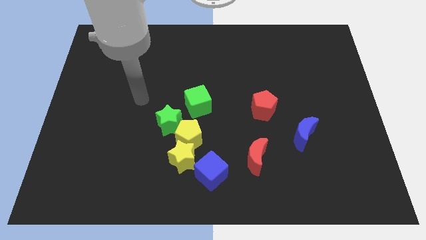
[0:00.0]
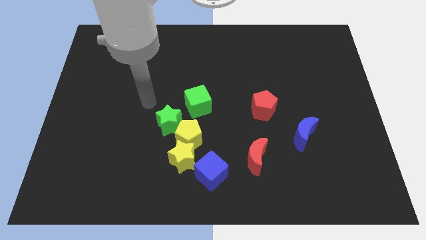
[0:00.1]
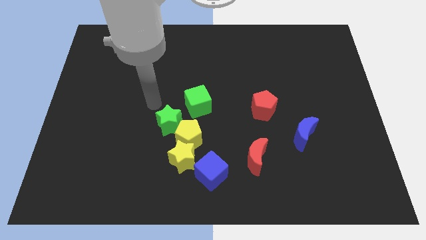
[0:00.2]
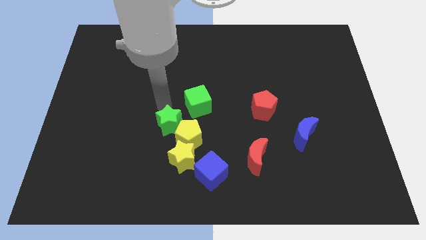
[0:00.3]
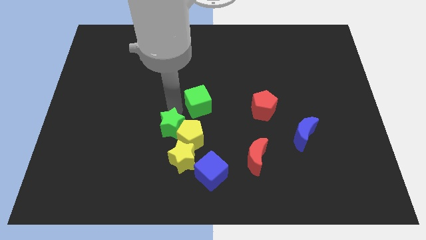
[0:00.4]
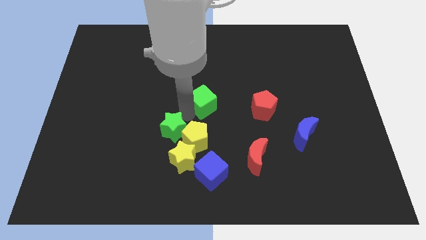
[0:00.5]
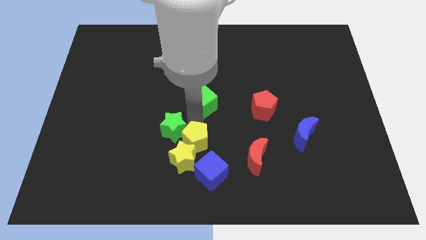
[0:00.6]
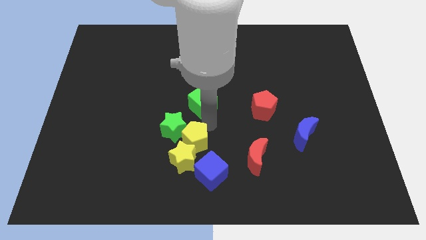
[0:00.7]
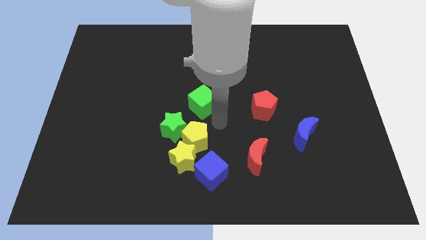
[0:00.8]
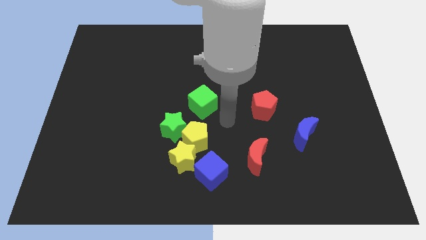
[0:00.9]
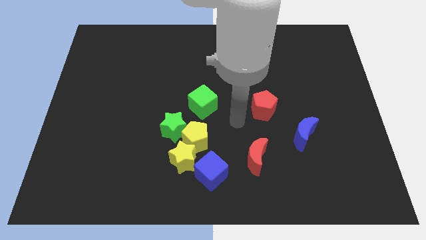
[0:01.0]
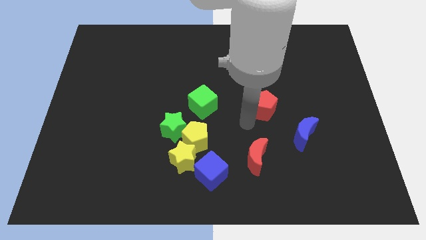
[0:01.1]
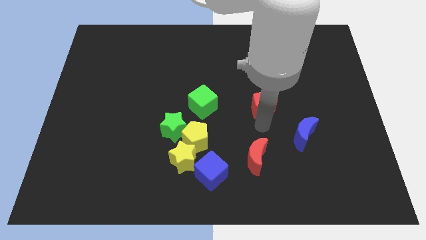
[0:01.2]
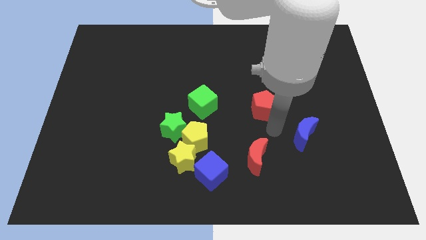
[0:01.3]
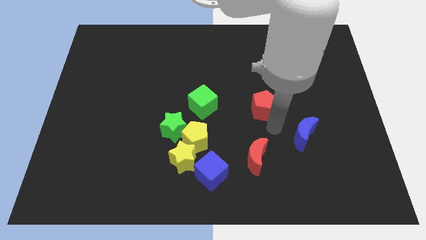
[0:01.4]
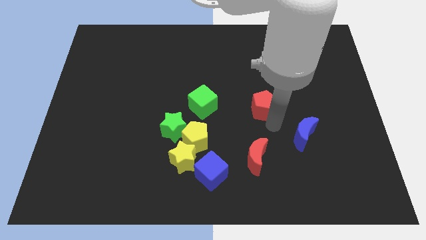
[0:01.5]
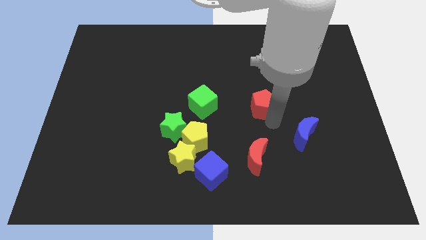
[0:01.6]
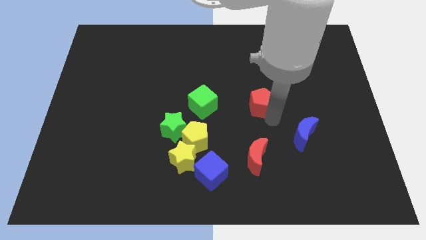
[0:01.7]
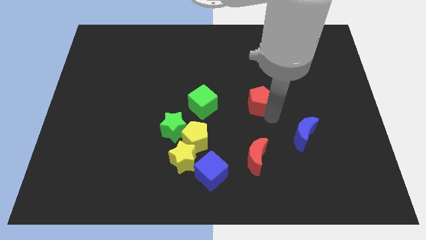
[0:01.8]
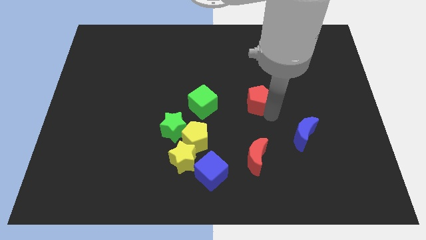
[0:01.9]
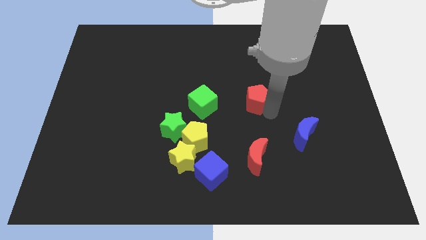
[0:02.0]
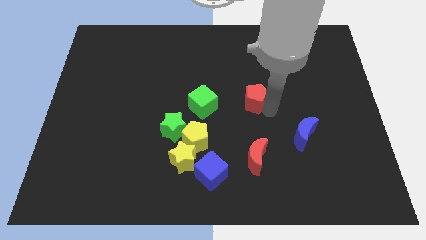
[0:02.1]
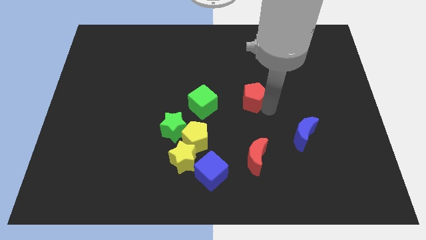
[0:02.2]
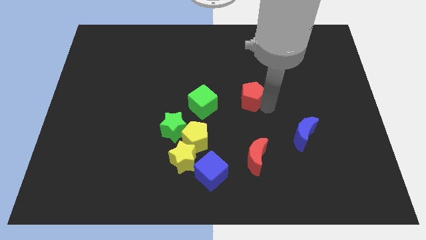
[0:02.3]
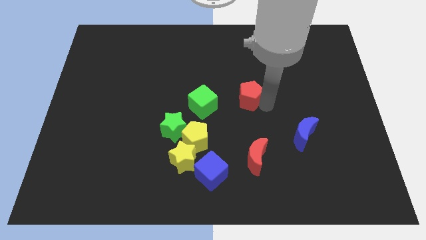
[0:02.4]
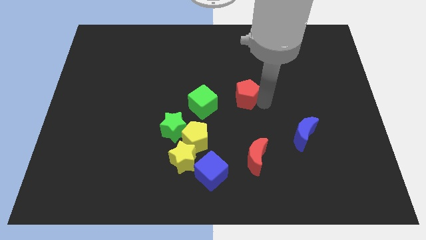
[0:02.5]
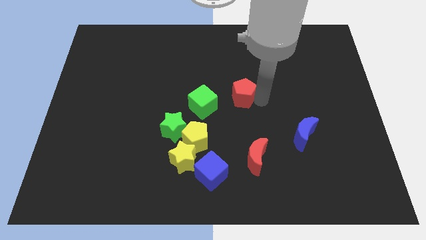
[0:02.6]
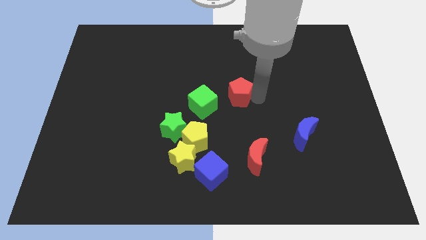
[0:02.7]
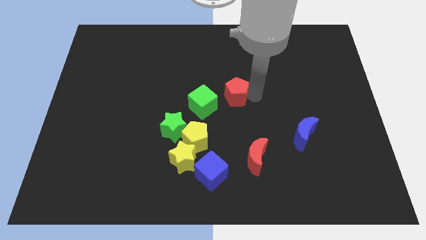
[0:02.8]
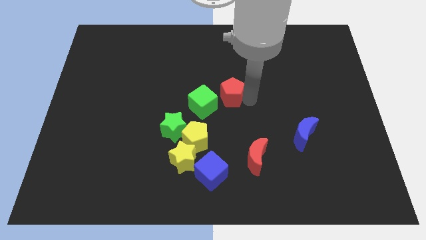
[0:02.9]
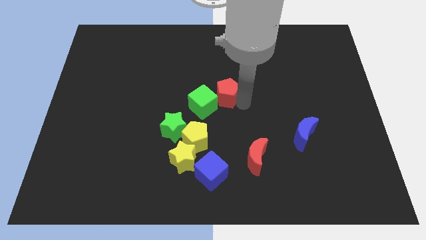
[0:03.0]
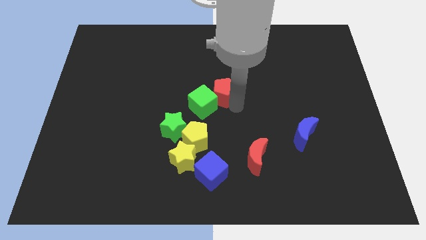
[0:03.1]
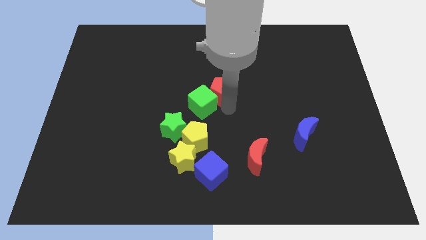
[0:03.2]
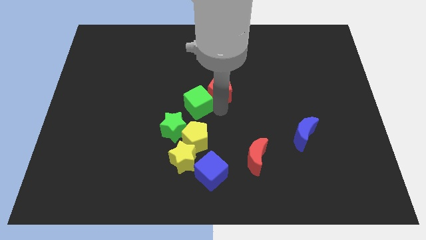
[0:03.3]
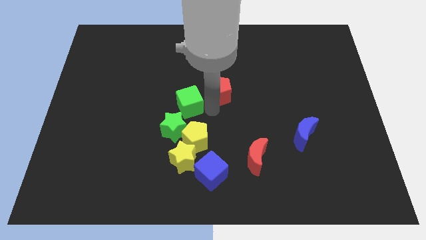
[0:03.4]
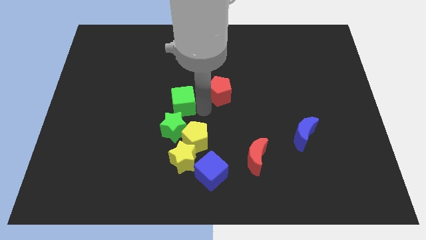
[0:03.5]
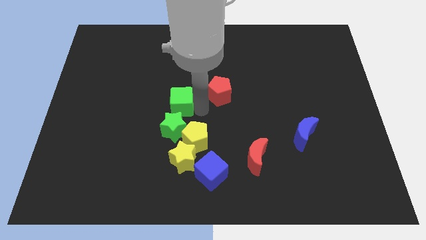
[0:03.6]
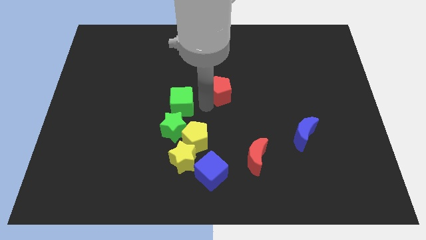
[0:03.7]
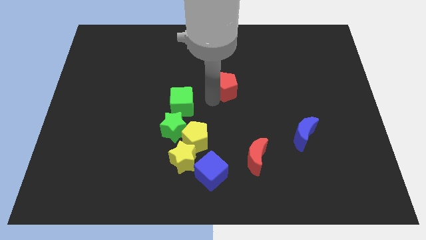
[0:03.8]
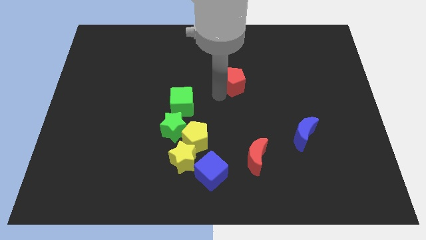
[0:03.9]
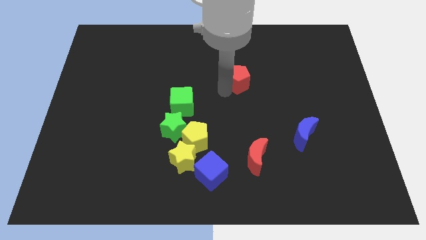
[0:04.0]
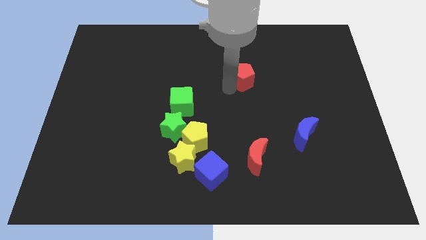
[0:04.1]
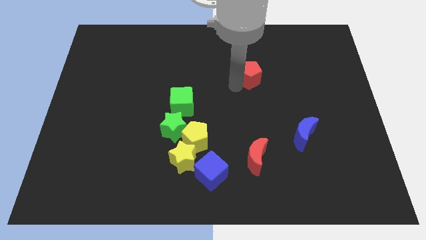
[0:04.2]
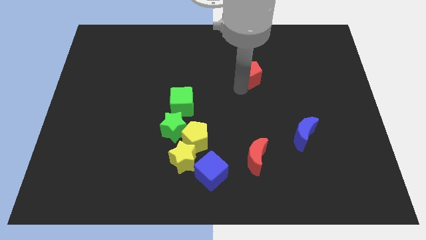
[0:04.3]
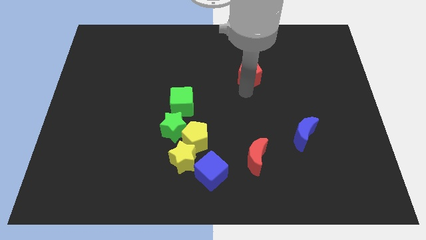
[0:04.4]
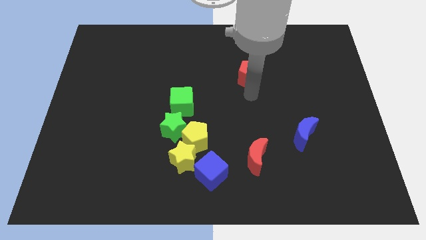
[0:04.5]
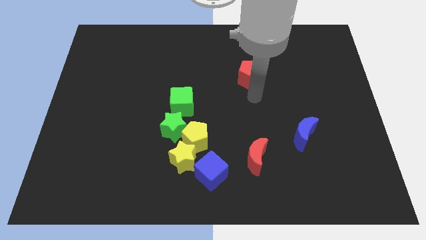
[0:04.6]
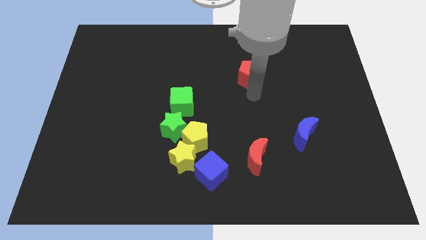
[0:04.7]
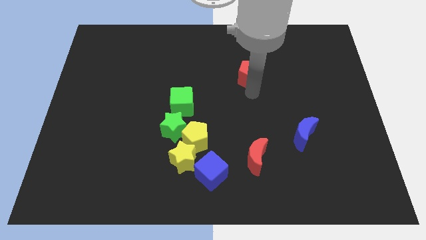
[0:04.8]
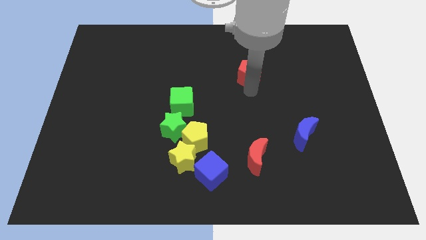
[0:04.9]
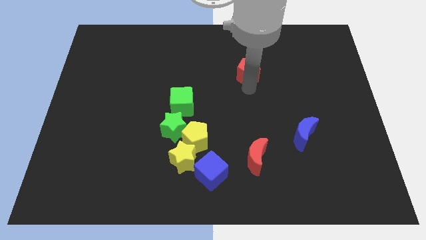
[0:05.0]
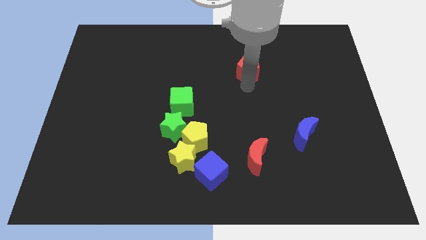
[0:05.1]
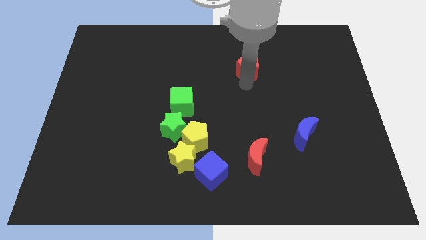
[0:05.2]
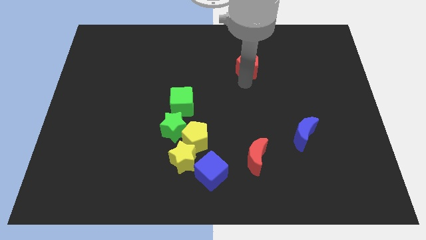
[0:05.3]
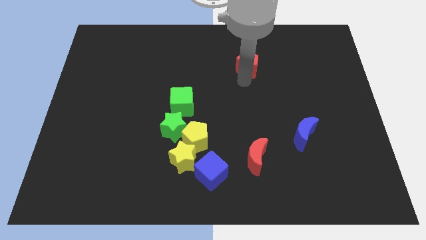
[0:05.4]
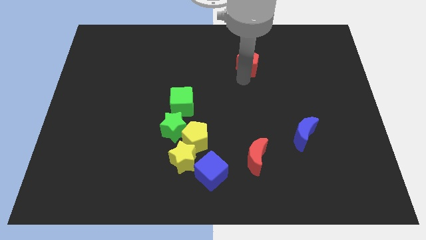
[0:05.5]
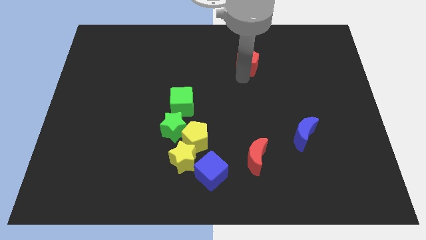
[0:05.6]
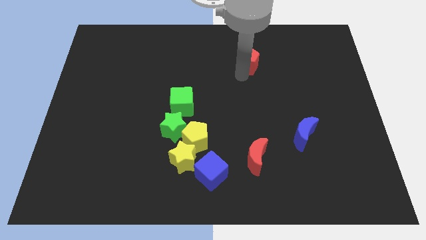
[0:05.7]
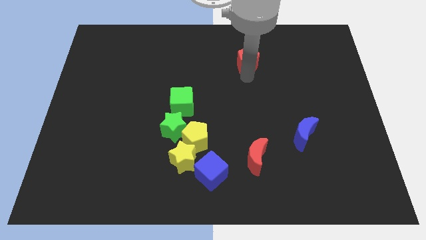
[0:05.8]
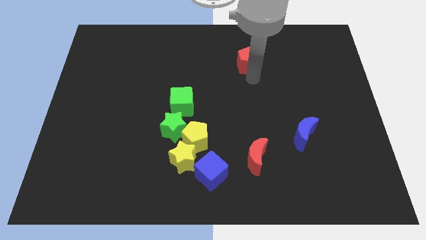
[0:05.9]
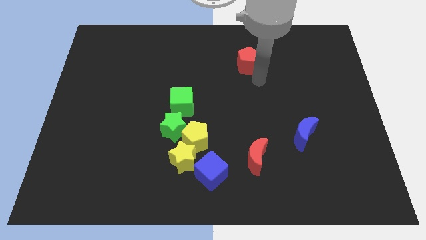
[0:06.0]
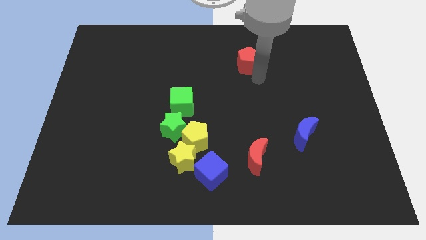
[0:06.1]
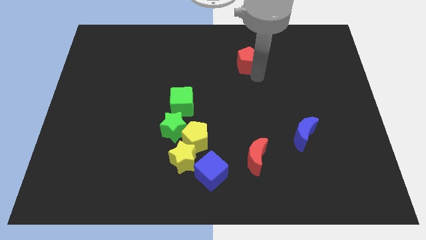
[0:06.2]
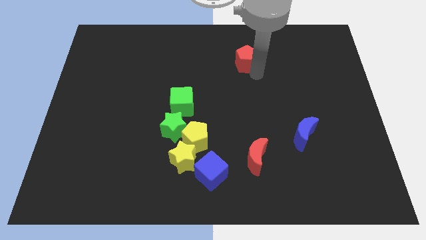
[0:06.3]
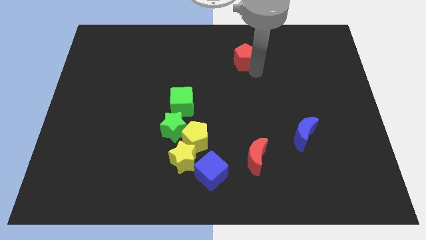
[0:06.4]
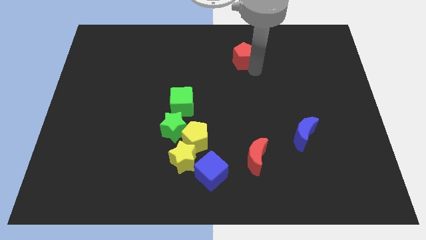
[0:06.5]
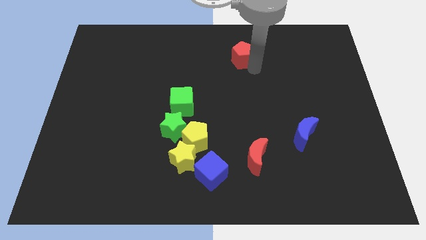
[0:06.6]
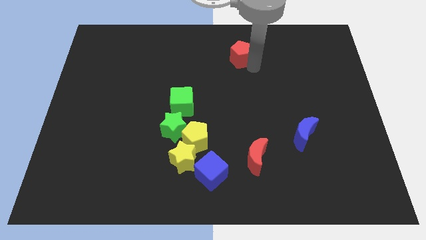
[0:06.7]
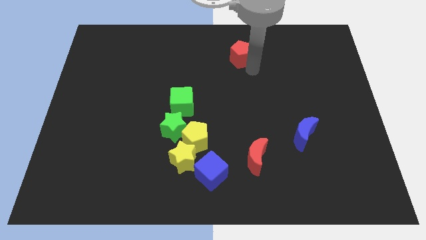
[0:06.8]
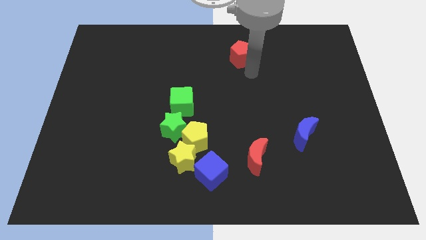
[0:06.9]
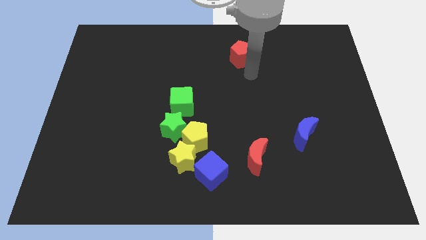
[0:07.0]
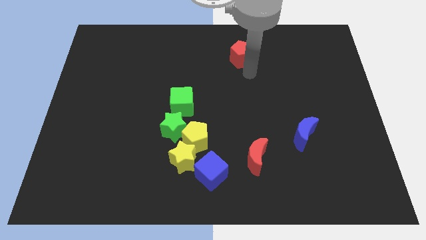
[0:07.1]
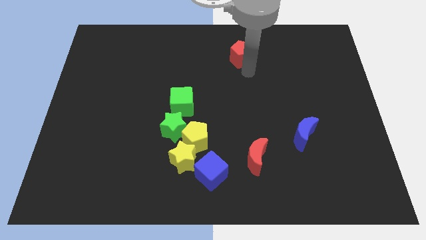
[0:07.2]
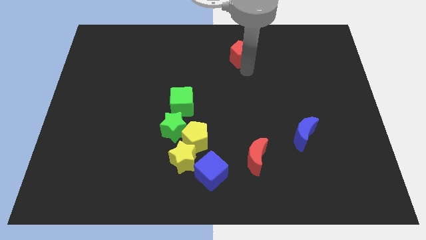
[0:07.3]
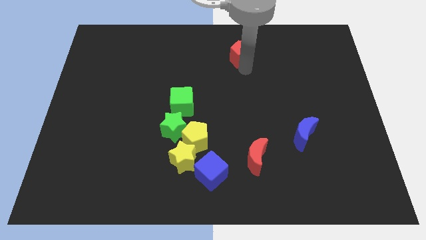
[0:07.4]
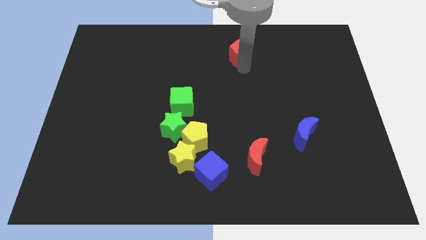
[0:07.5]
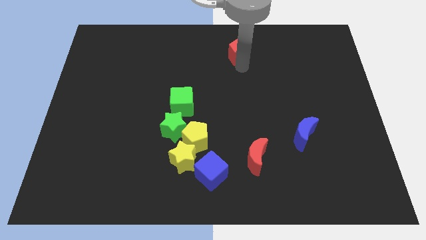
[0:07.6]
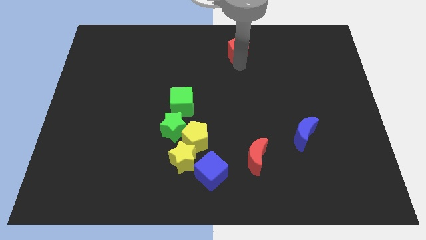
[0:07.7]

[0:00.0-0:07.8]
push the red pentagon to the top side
